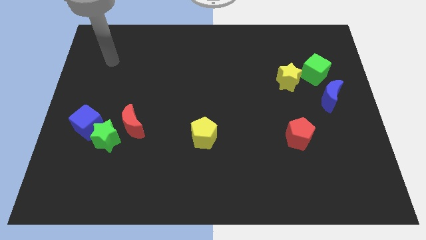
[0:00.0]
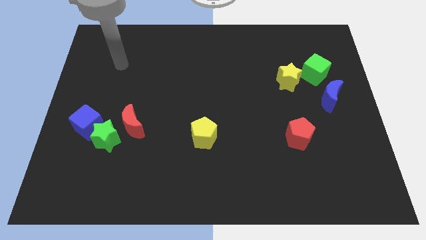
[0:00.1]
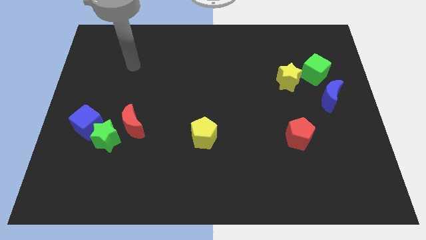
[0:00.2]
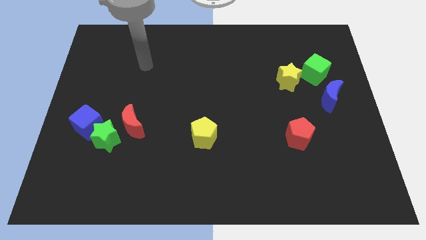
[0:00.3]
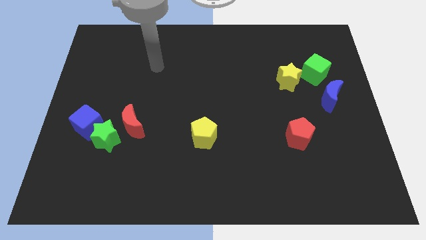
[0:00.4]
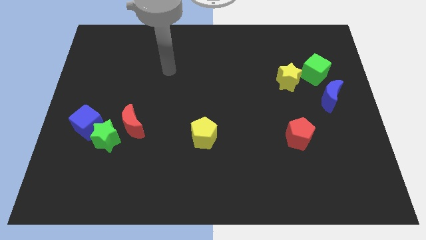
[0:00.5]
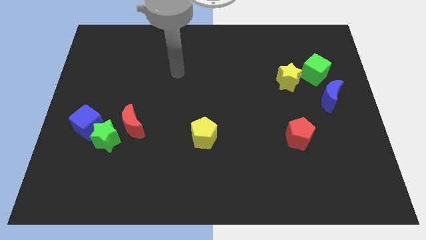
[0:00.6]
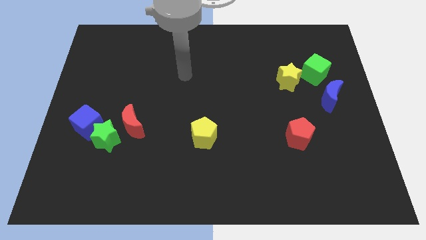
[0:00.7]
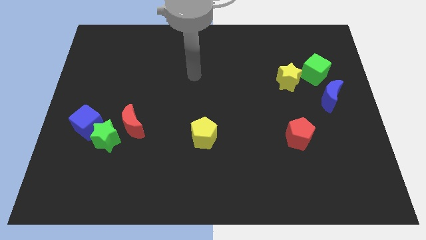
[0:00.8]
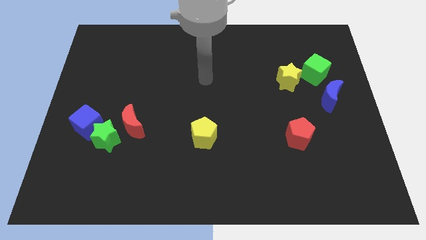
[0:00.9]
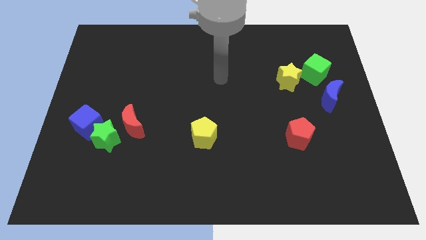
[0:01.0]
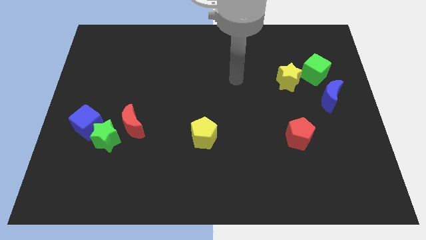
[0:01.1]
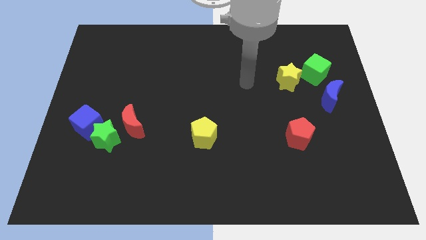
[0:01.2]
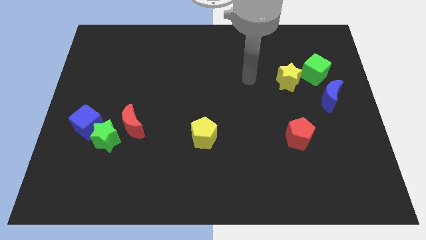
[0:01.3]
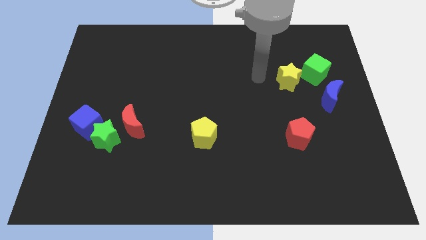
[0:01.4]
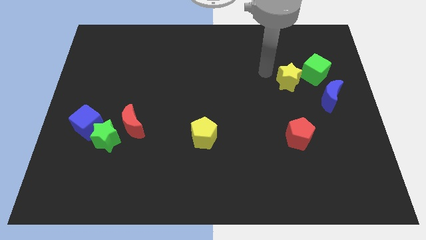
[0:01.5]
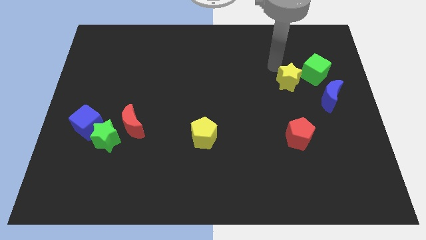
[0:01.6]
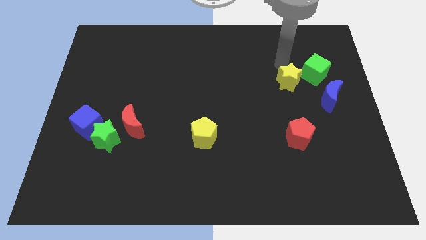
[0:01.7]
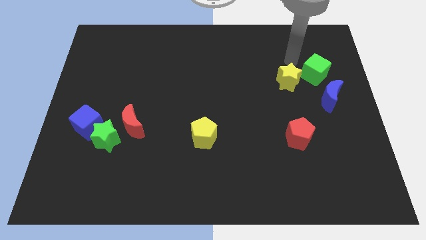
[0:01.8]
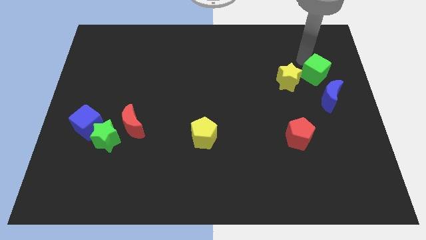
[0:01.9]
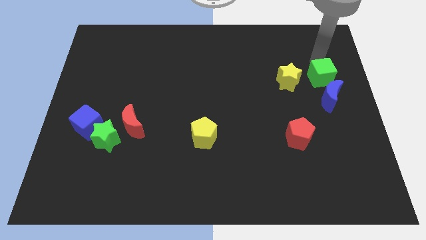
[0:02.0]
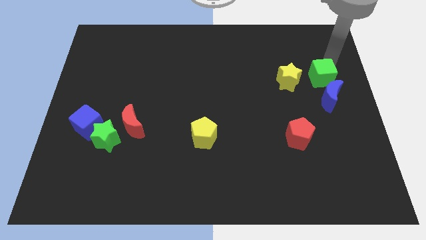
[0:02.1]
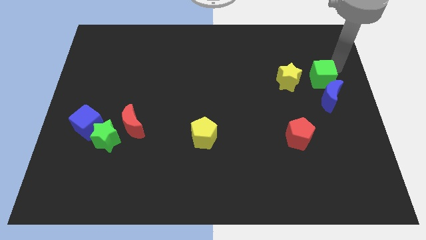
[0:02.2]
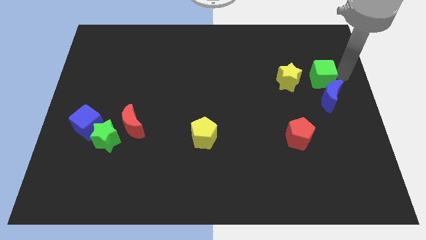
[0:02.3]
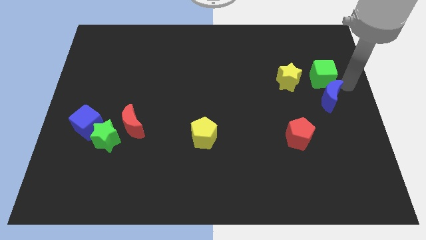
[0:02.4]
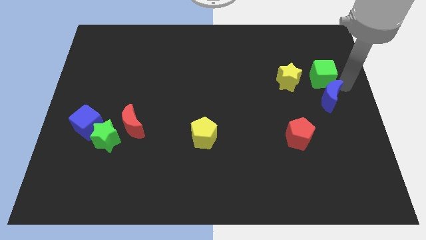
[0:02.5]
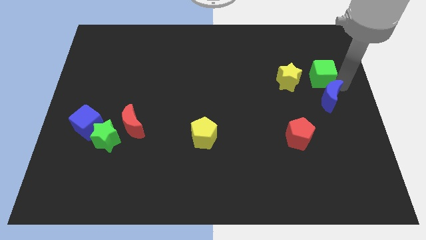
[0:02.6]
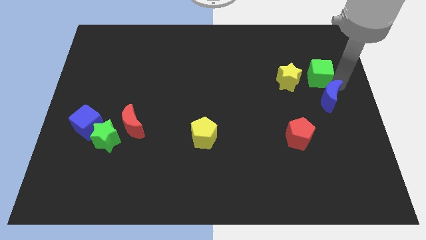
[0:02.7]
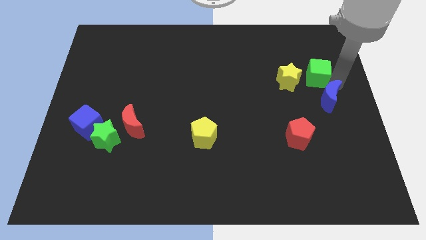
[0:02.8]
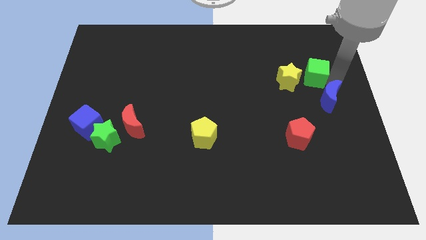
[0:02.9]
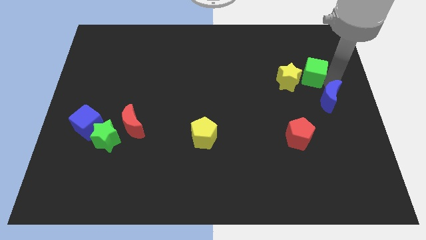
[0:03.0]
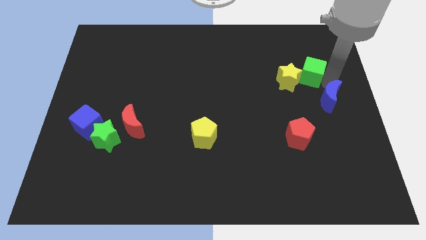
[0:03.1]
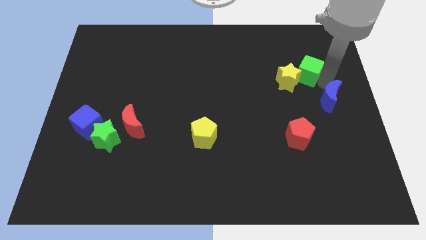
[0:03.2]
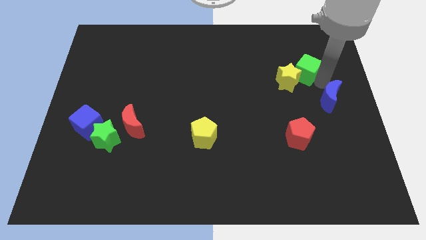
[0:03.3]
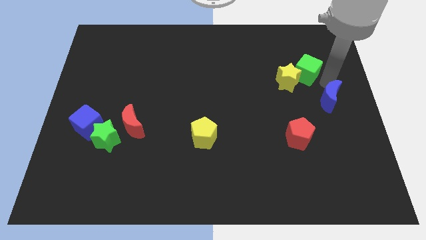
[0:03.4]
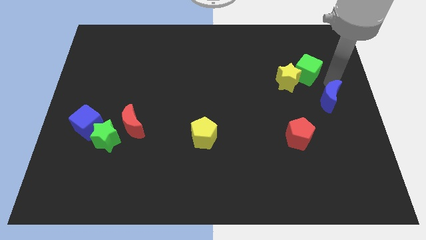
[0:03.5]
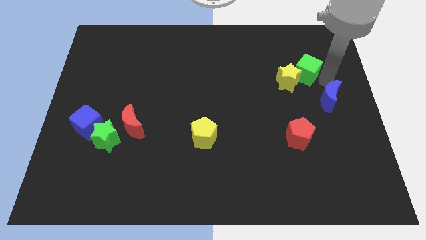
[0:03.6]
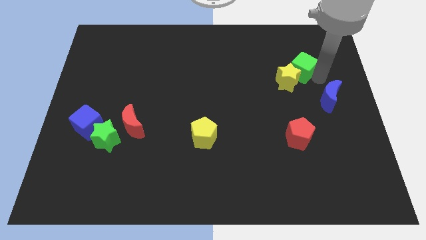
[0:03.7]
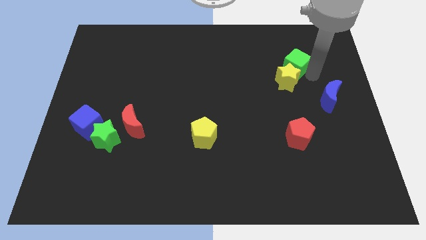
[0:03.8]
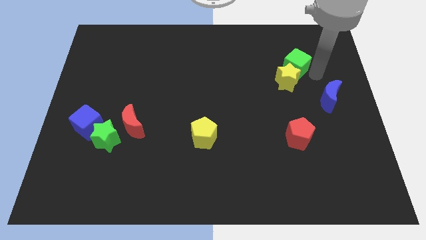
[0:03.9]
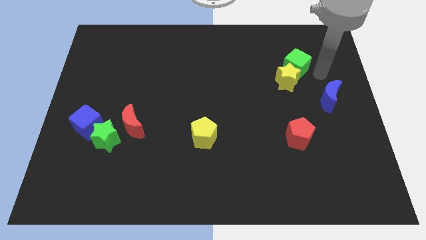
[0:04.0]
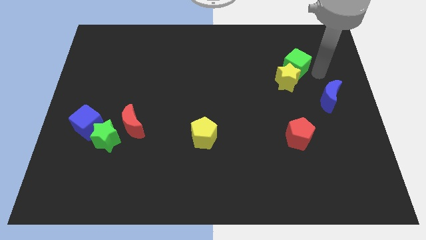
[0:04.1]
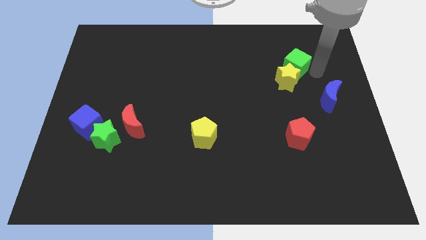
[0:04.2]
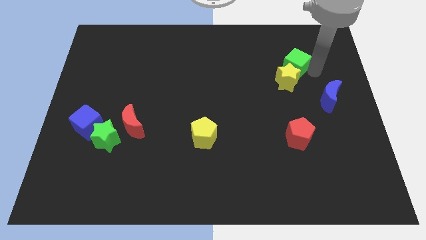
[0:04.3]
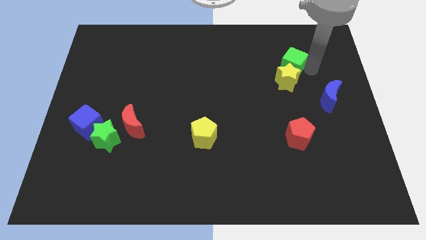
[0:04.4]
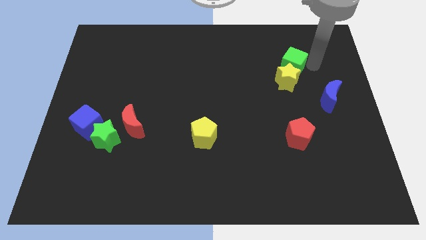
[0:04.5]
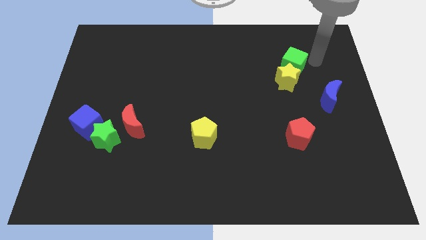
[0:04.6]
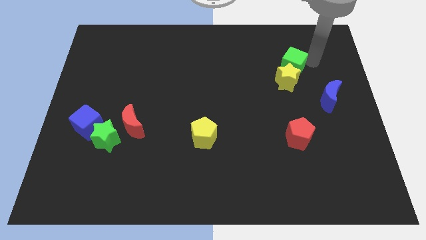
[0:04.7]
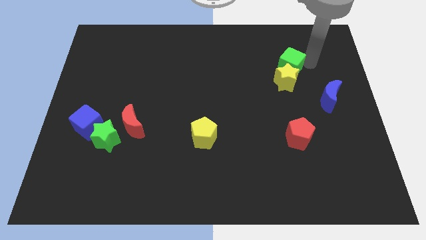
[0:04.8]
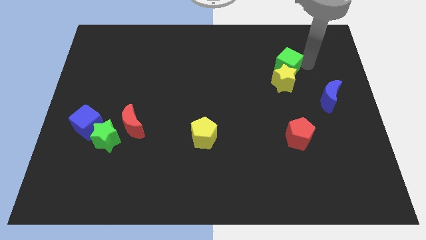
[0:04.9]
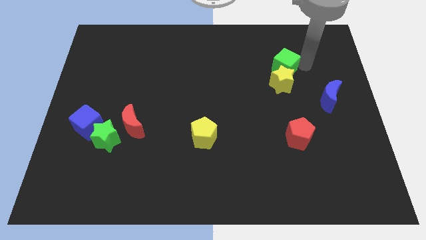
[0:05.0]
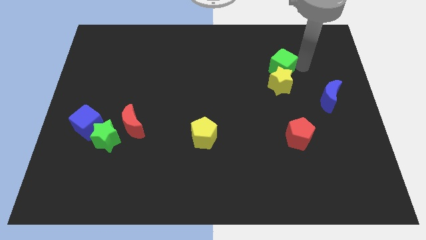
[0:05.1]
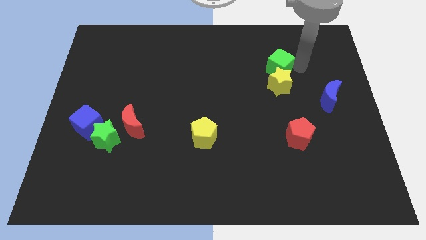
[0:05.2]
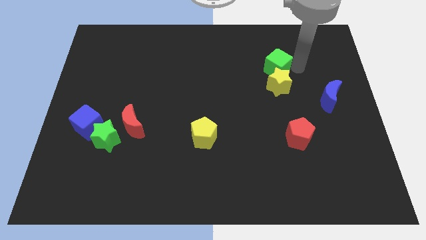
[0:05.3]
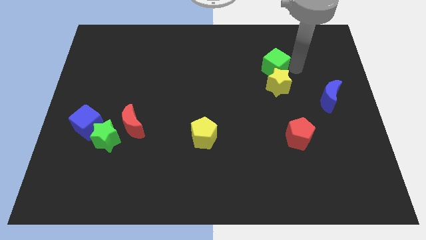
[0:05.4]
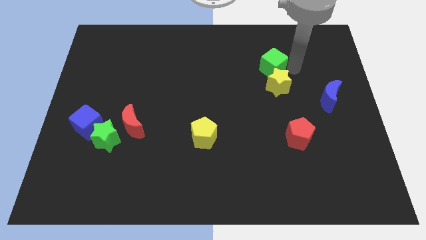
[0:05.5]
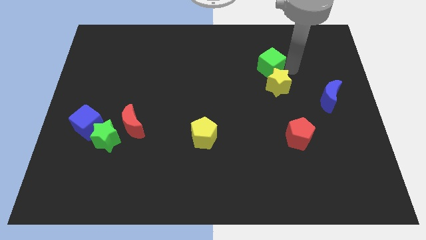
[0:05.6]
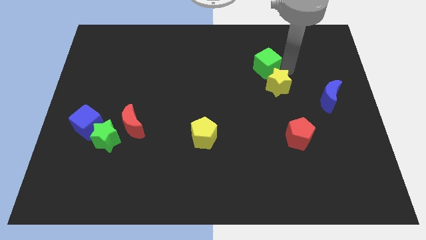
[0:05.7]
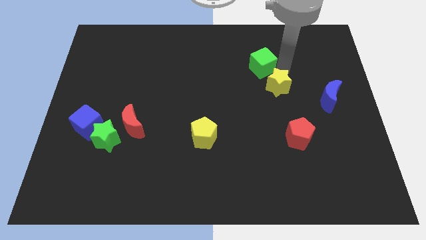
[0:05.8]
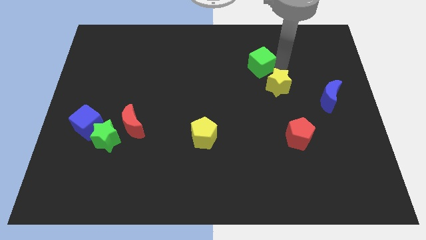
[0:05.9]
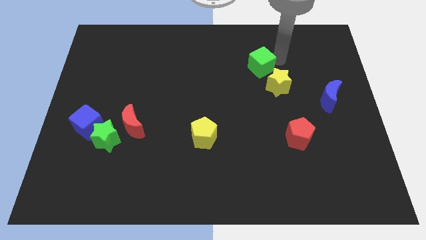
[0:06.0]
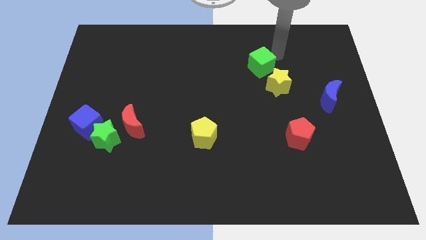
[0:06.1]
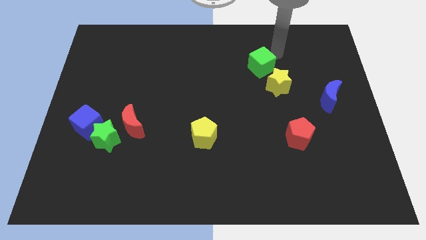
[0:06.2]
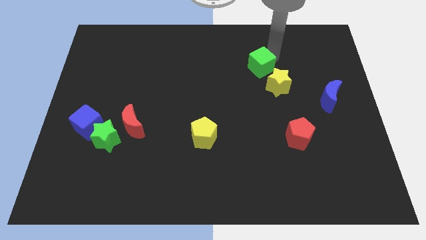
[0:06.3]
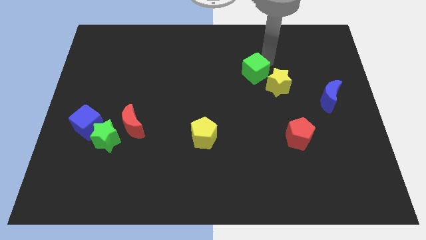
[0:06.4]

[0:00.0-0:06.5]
push the green cube left of the yellow star

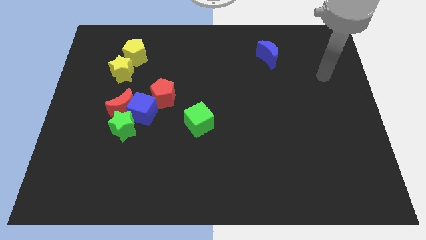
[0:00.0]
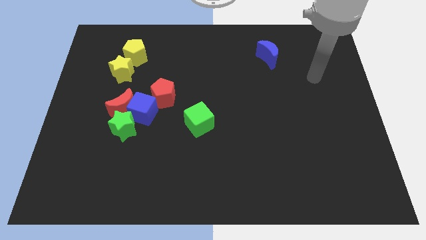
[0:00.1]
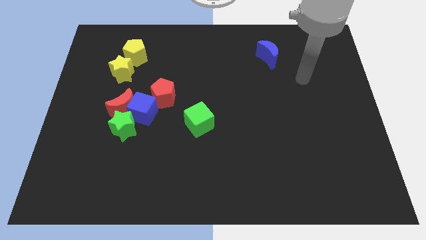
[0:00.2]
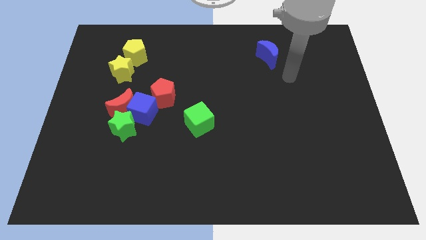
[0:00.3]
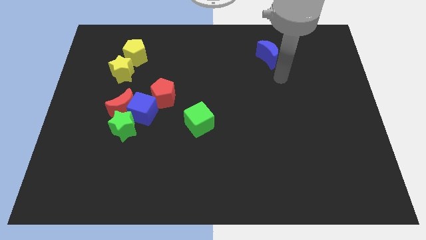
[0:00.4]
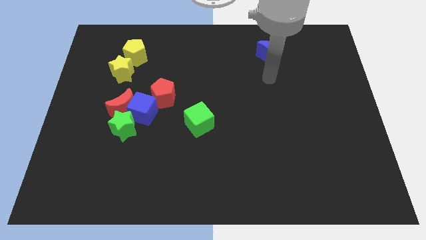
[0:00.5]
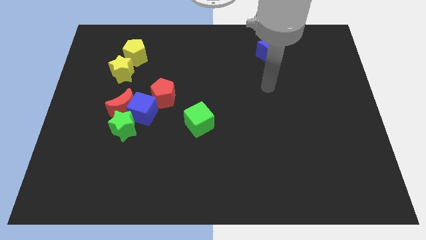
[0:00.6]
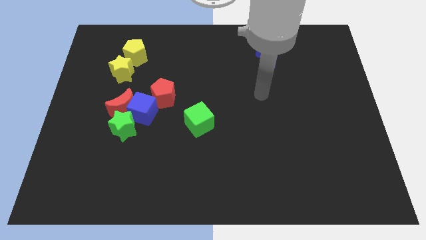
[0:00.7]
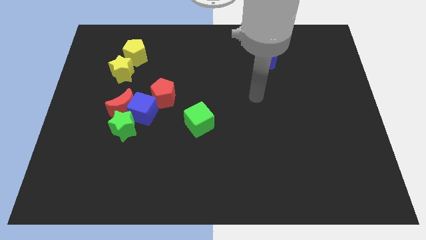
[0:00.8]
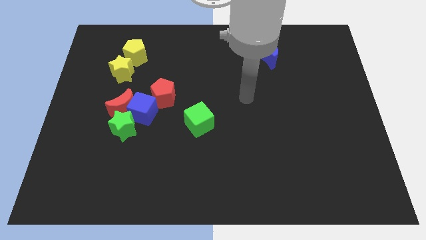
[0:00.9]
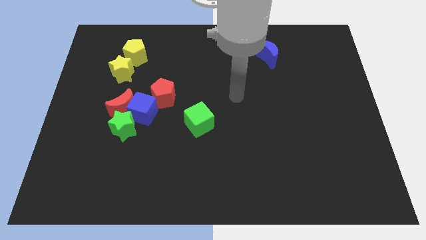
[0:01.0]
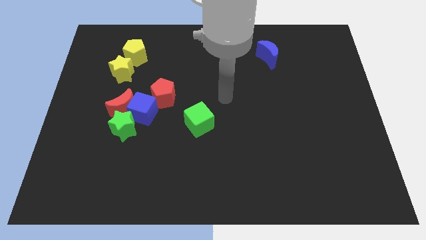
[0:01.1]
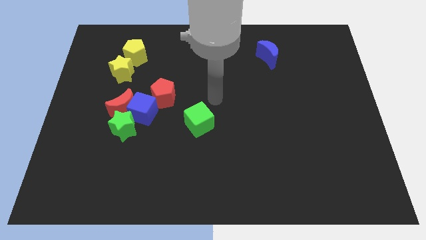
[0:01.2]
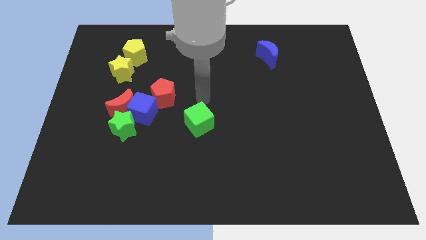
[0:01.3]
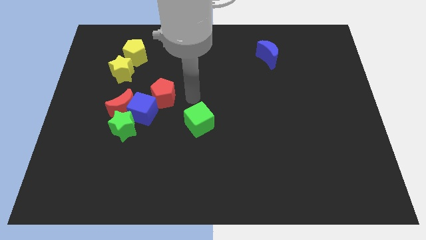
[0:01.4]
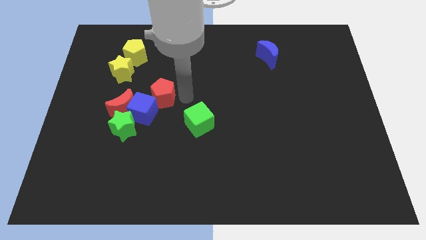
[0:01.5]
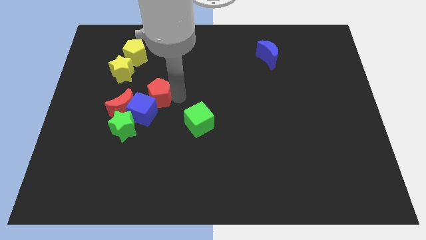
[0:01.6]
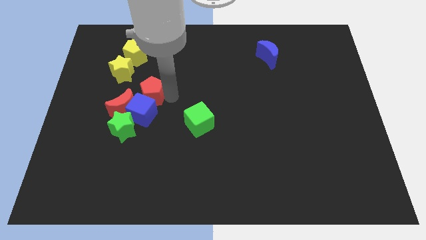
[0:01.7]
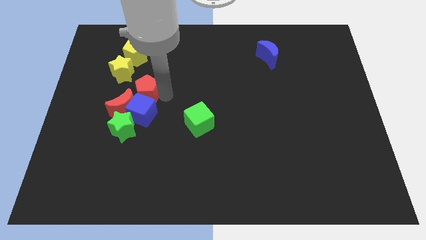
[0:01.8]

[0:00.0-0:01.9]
move the red pentagon diagonally up and to the left of the blue cube
